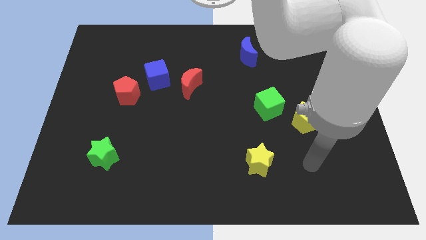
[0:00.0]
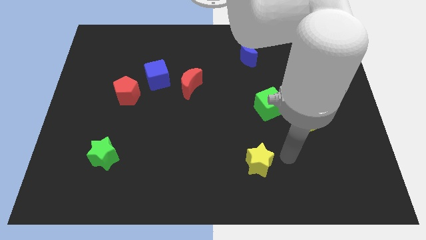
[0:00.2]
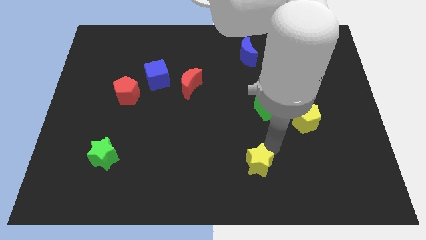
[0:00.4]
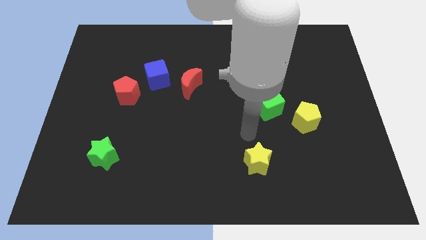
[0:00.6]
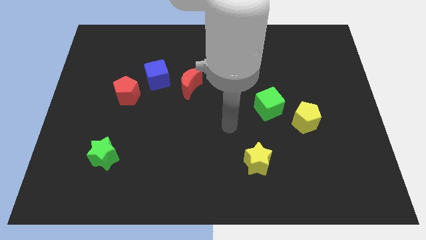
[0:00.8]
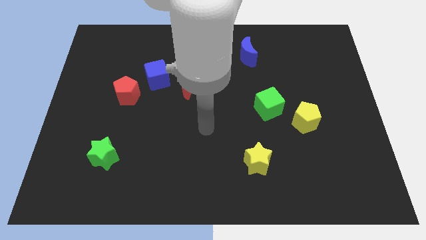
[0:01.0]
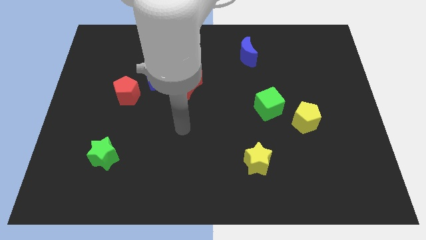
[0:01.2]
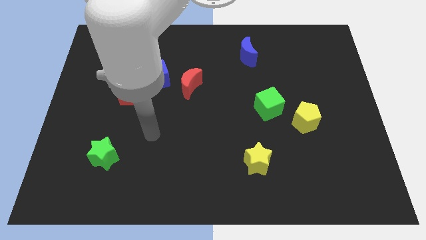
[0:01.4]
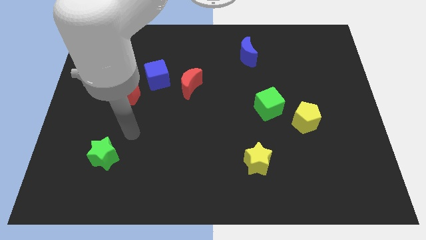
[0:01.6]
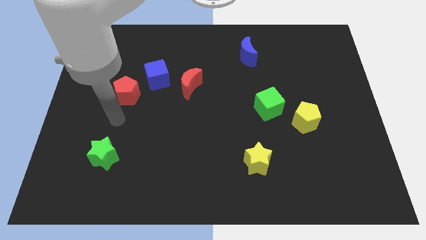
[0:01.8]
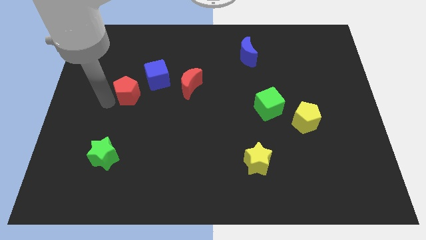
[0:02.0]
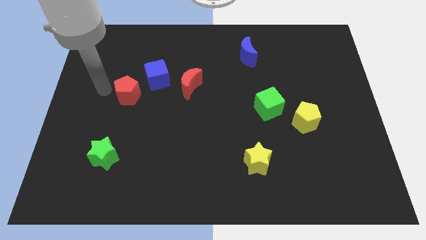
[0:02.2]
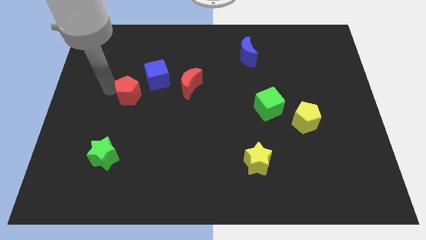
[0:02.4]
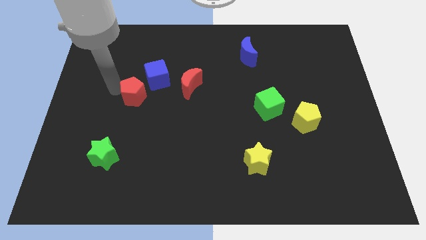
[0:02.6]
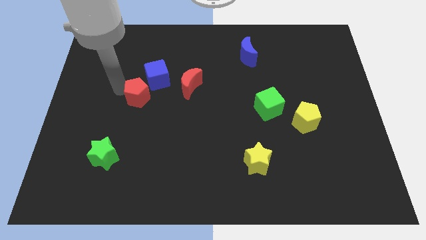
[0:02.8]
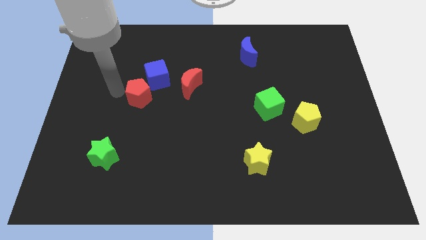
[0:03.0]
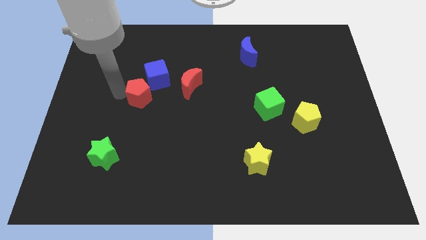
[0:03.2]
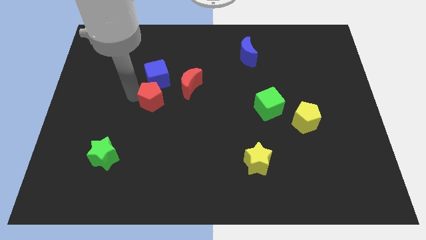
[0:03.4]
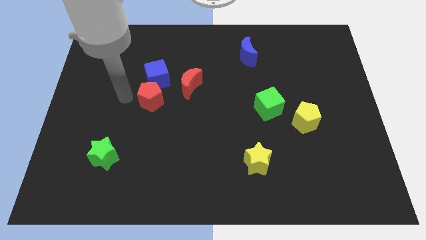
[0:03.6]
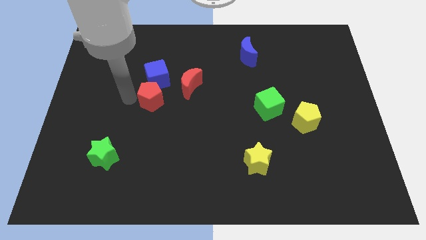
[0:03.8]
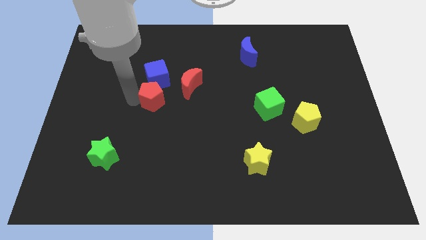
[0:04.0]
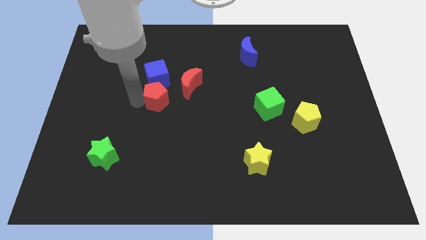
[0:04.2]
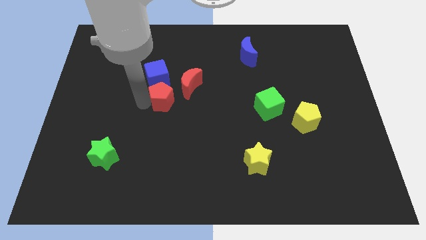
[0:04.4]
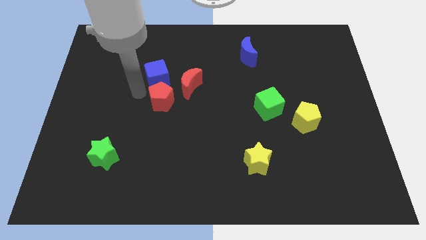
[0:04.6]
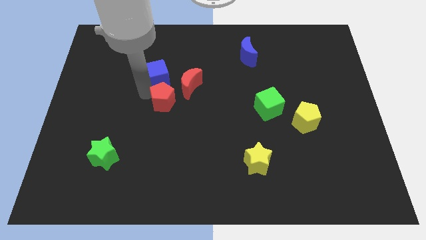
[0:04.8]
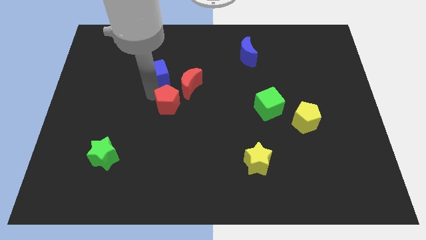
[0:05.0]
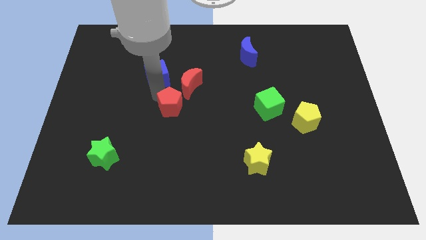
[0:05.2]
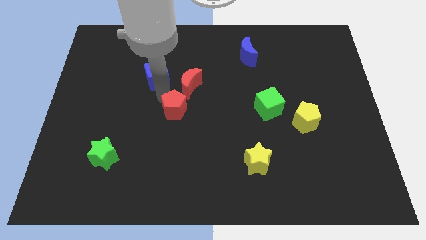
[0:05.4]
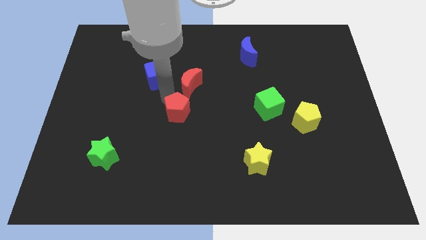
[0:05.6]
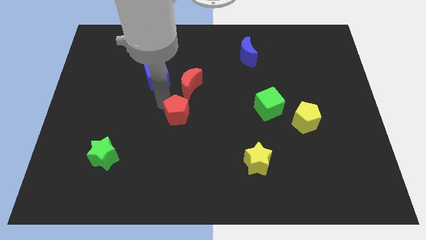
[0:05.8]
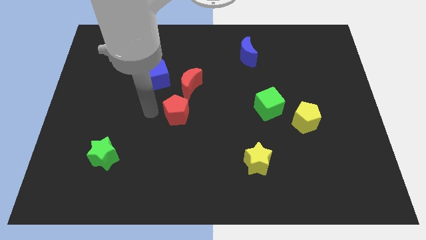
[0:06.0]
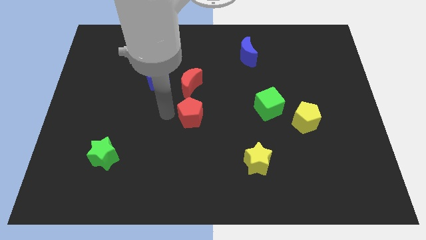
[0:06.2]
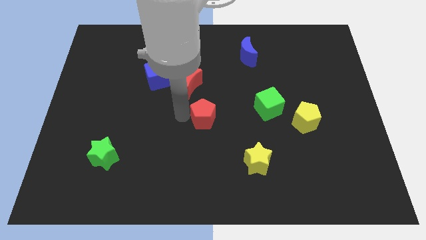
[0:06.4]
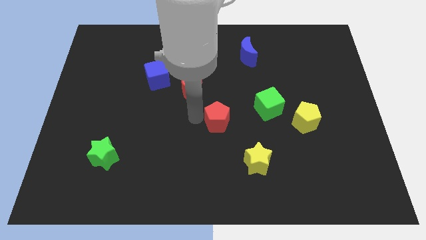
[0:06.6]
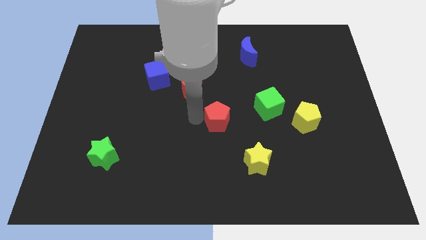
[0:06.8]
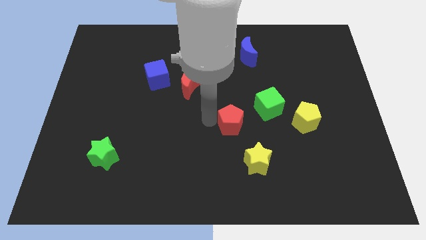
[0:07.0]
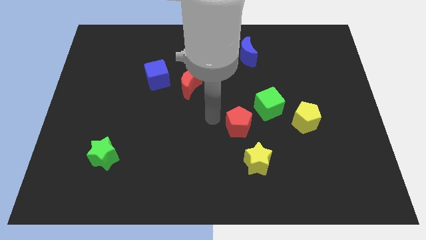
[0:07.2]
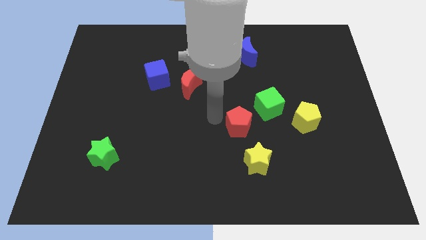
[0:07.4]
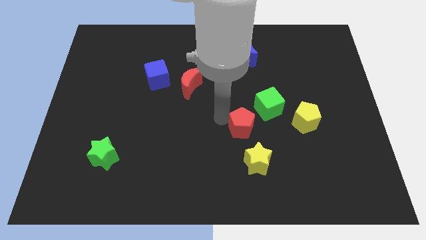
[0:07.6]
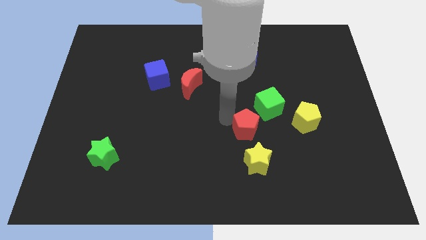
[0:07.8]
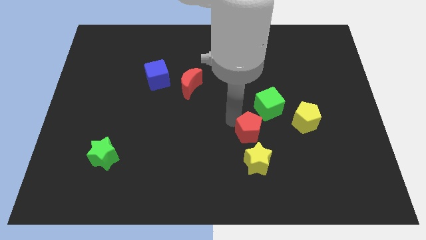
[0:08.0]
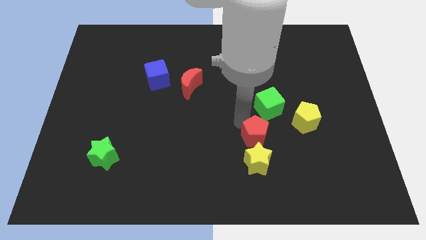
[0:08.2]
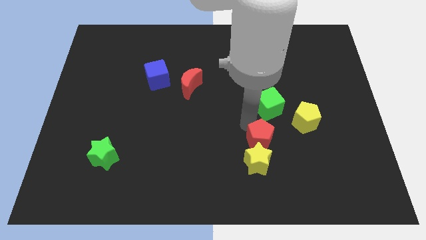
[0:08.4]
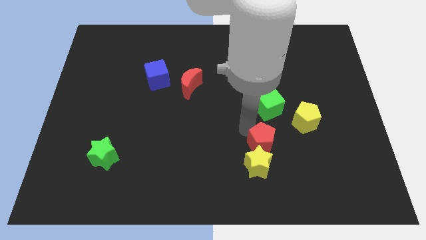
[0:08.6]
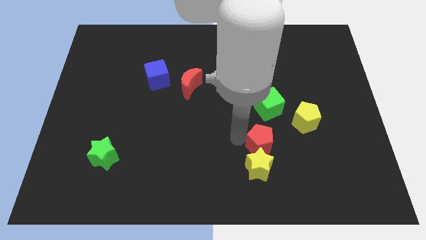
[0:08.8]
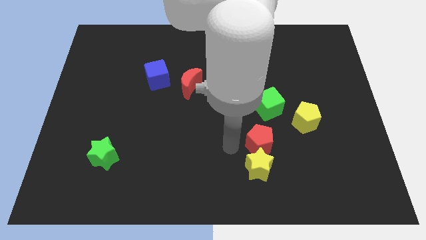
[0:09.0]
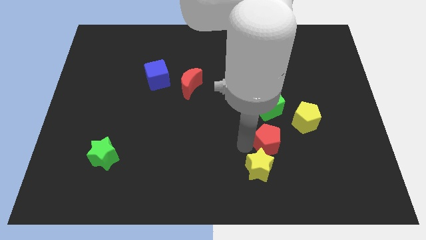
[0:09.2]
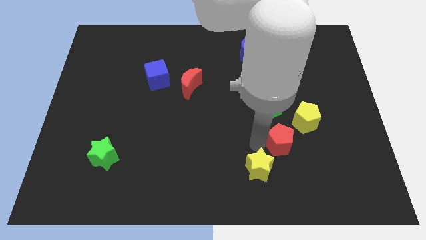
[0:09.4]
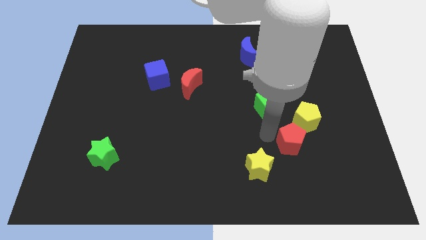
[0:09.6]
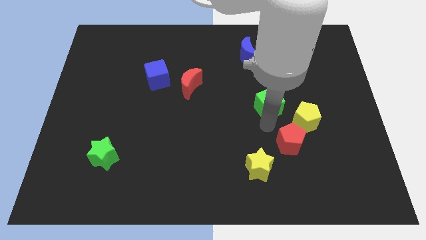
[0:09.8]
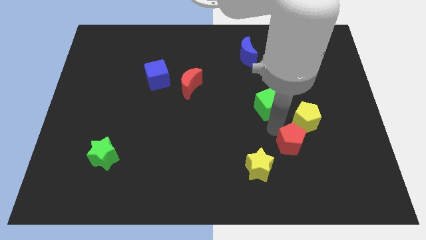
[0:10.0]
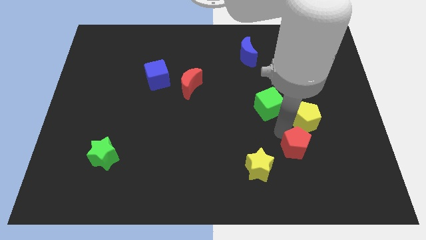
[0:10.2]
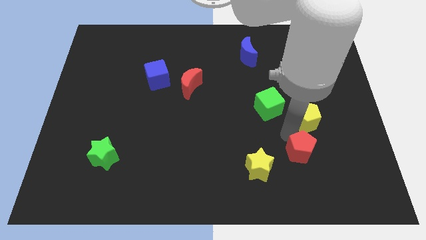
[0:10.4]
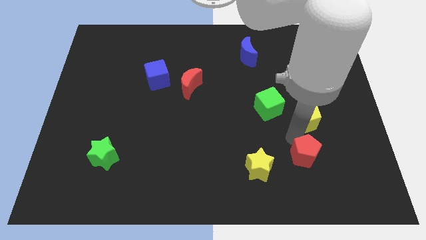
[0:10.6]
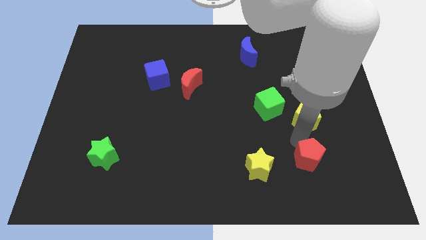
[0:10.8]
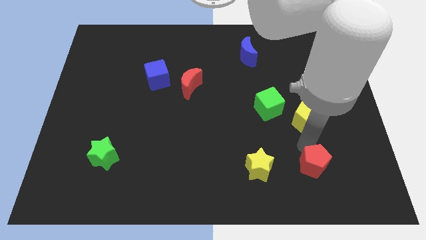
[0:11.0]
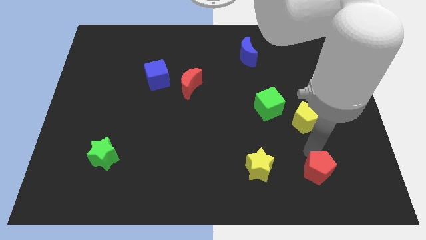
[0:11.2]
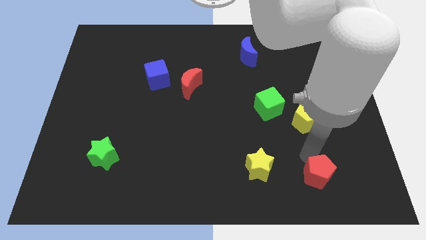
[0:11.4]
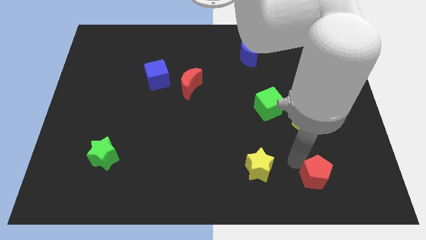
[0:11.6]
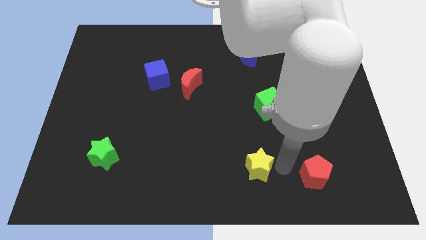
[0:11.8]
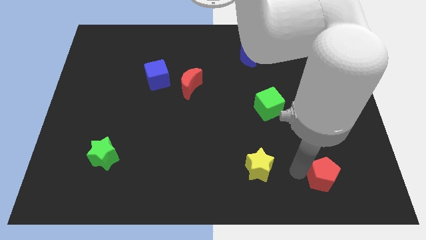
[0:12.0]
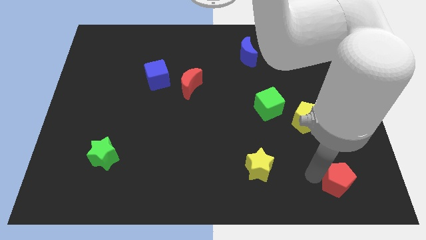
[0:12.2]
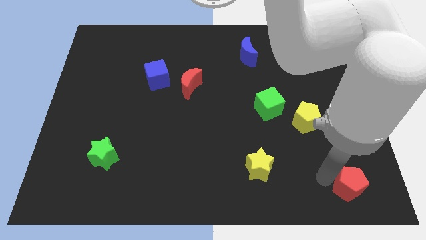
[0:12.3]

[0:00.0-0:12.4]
put the red pentagon to the bottom right corner
